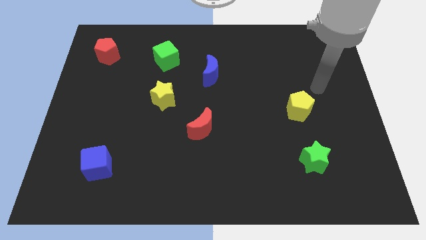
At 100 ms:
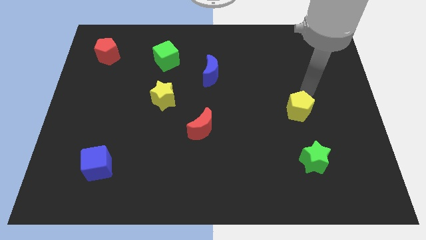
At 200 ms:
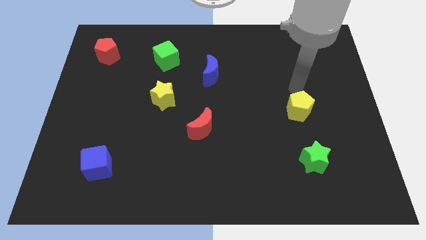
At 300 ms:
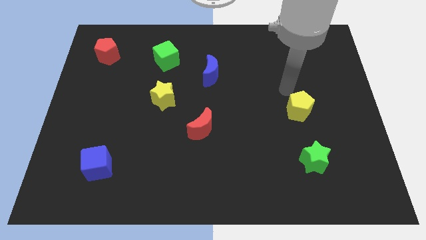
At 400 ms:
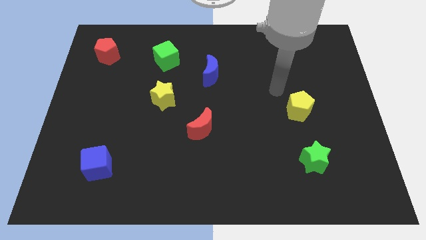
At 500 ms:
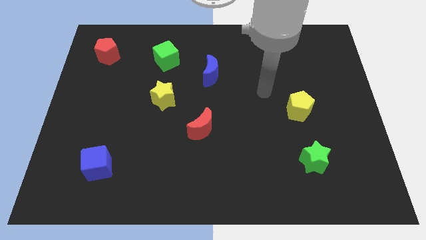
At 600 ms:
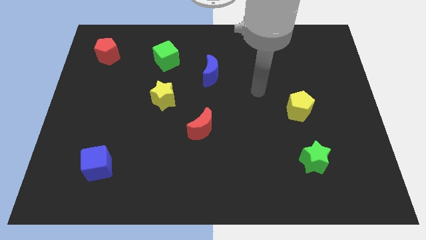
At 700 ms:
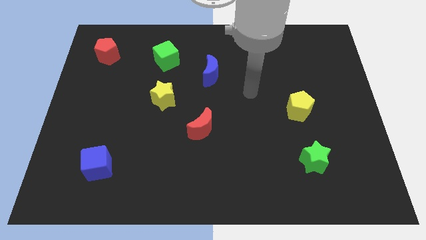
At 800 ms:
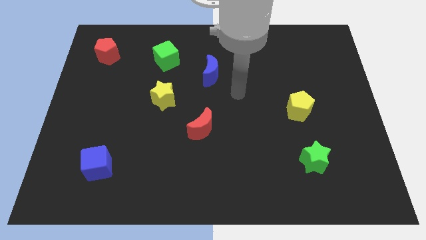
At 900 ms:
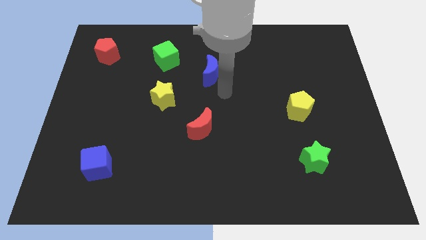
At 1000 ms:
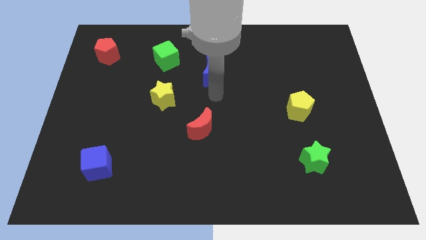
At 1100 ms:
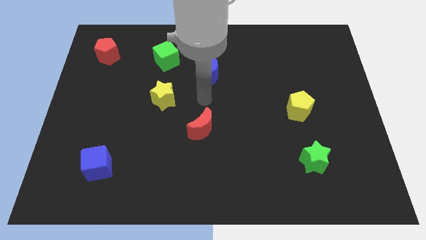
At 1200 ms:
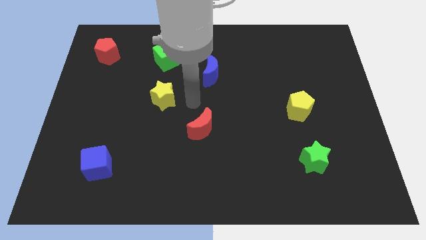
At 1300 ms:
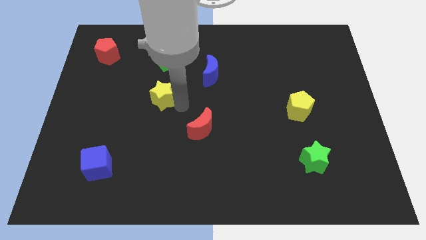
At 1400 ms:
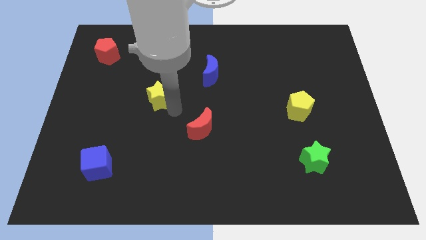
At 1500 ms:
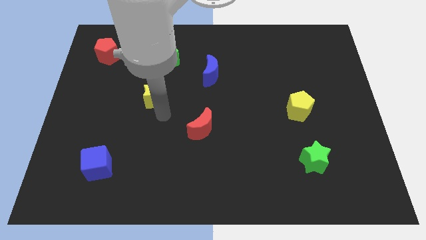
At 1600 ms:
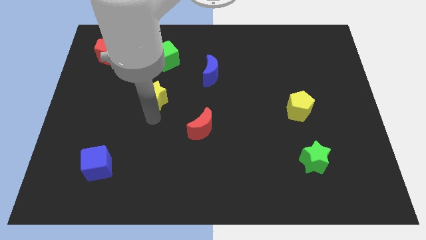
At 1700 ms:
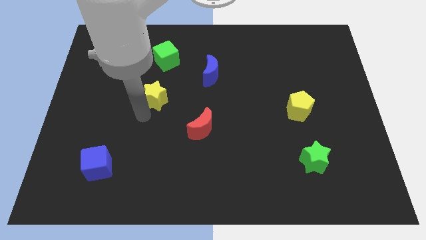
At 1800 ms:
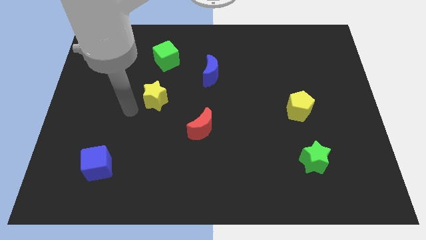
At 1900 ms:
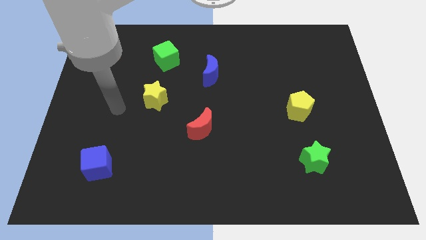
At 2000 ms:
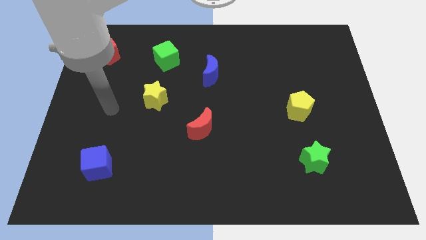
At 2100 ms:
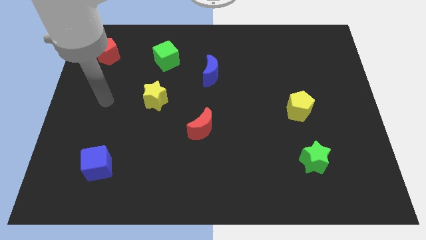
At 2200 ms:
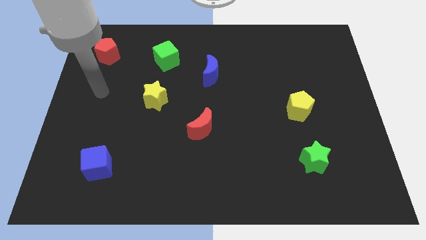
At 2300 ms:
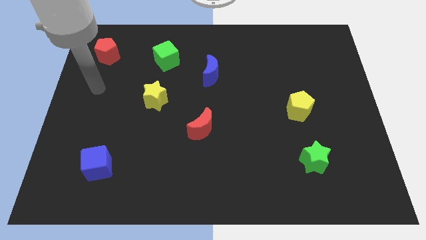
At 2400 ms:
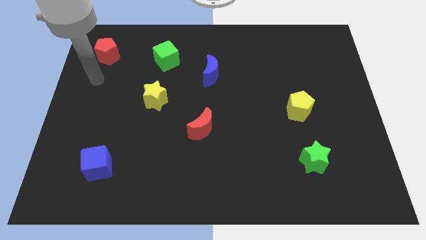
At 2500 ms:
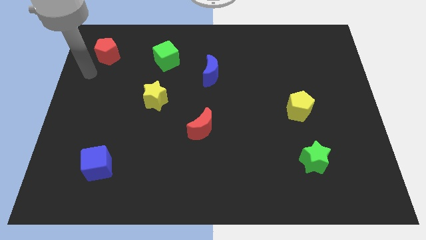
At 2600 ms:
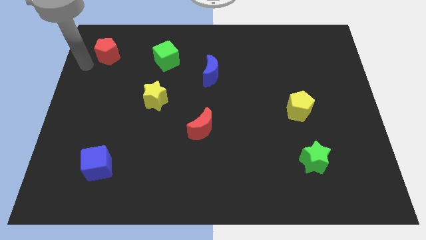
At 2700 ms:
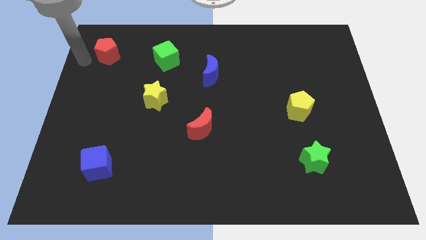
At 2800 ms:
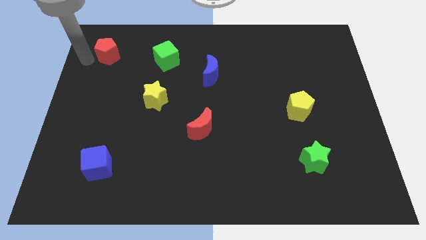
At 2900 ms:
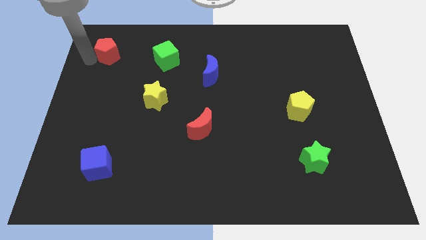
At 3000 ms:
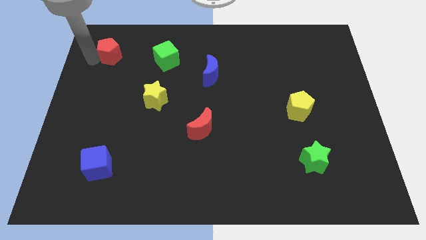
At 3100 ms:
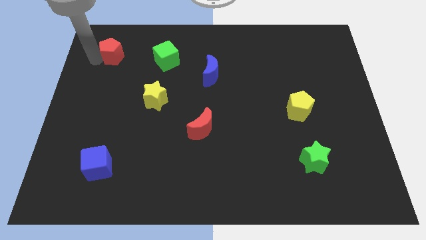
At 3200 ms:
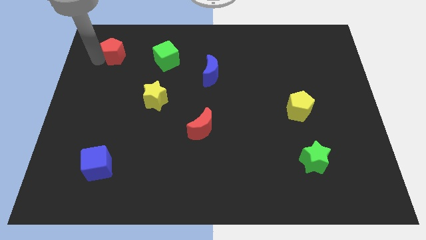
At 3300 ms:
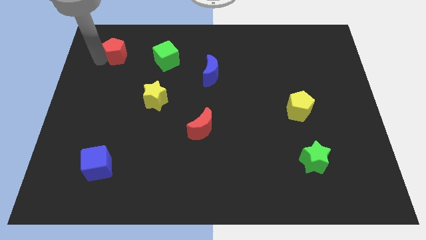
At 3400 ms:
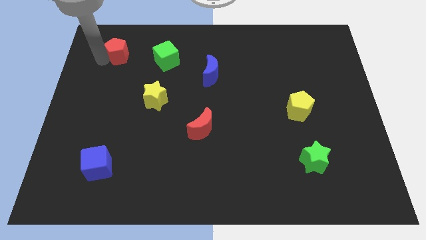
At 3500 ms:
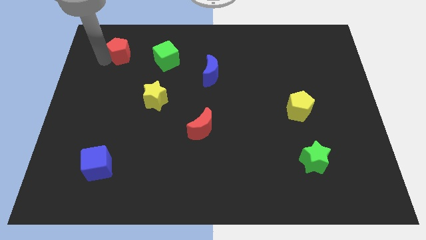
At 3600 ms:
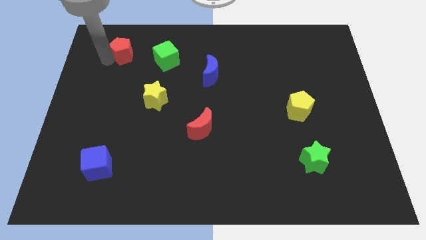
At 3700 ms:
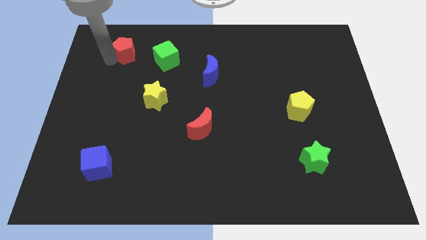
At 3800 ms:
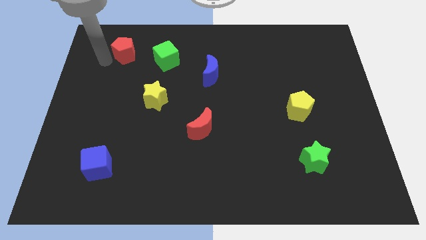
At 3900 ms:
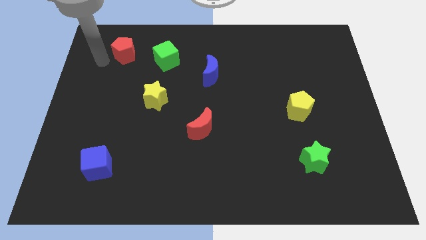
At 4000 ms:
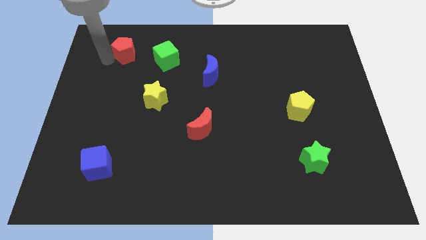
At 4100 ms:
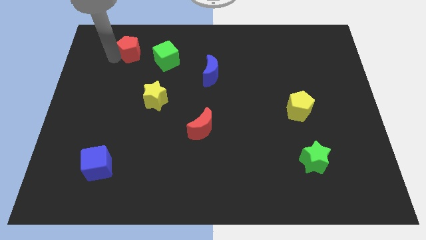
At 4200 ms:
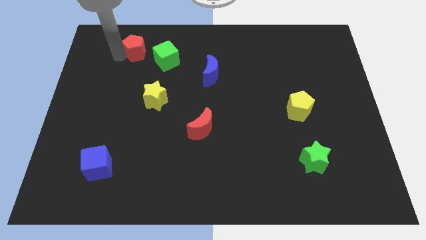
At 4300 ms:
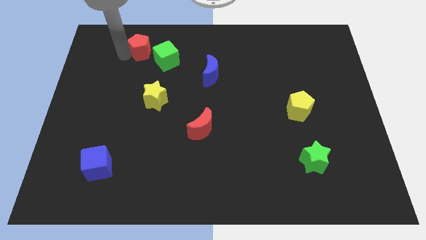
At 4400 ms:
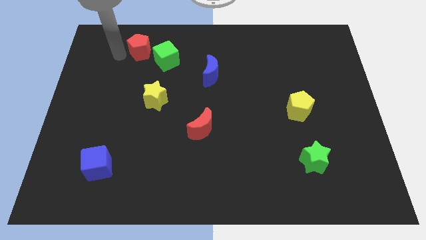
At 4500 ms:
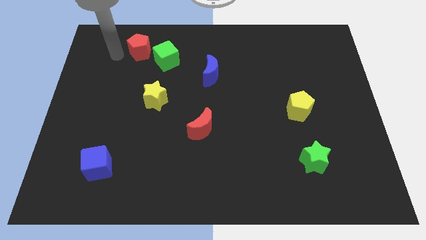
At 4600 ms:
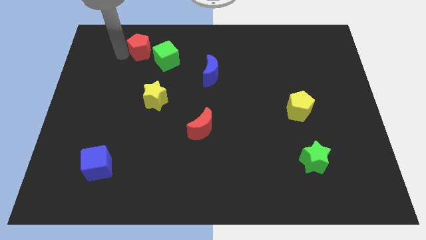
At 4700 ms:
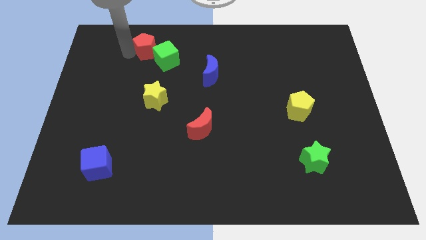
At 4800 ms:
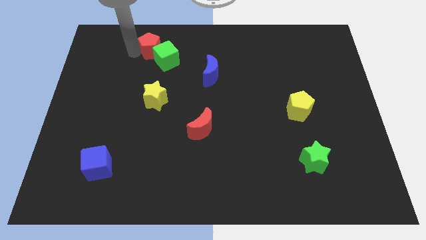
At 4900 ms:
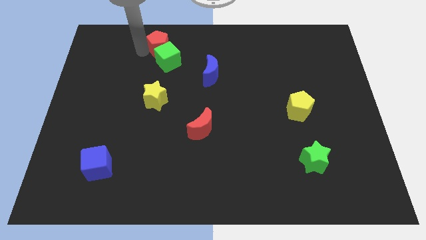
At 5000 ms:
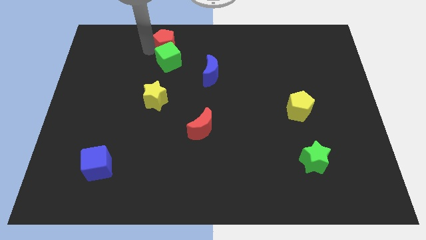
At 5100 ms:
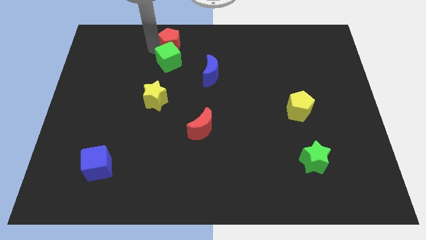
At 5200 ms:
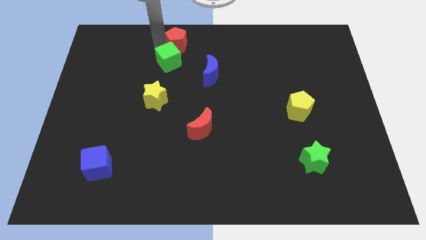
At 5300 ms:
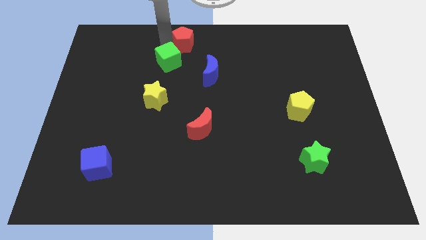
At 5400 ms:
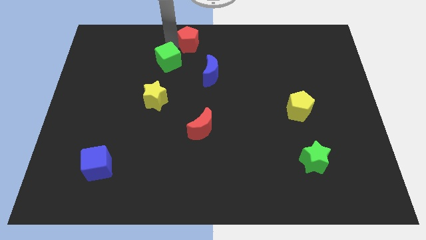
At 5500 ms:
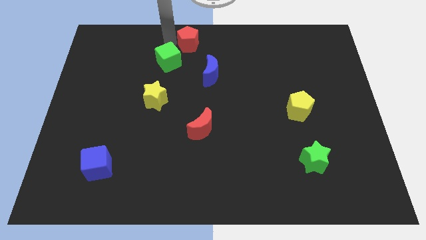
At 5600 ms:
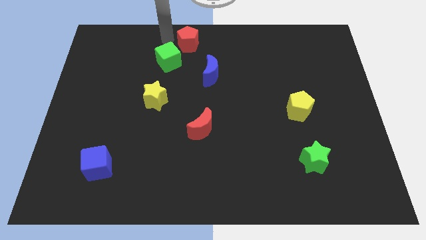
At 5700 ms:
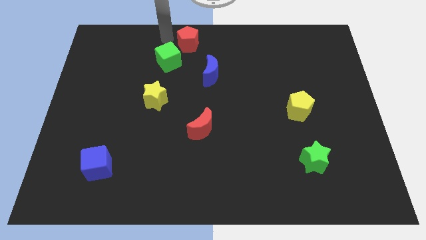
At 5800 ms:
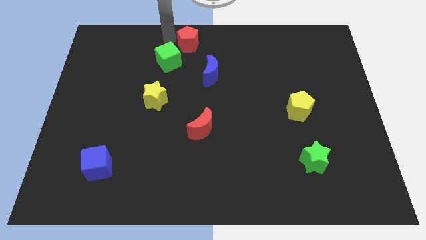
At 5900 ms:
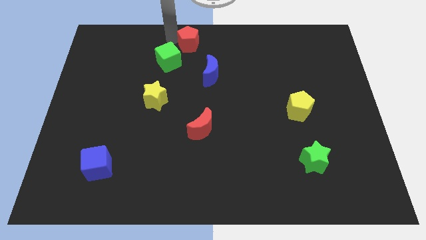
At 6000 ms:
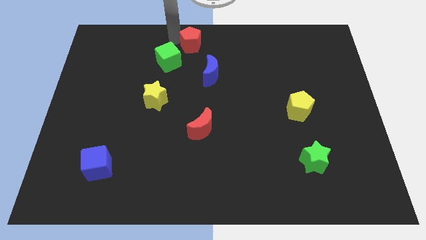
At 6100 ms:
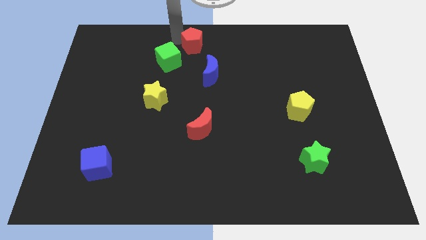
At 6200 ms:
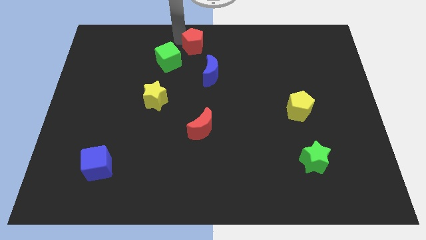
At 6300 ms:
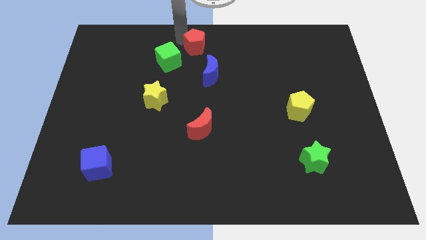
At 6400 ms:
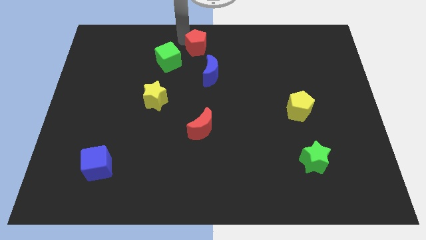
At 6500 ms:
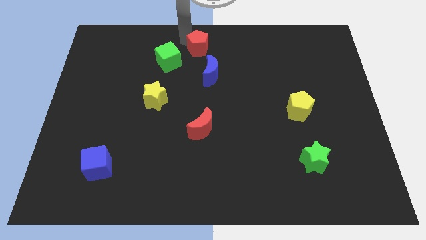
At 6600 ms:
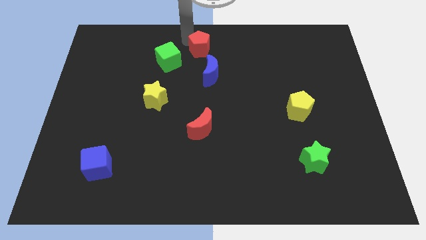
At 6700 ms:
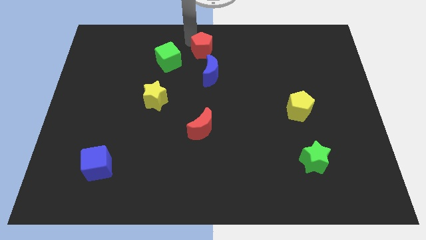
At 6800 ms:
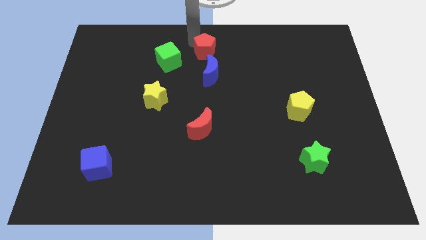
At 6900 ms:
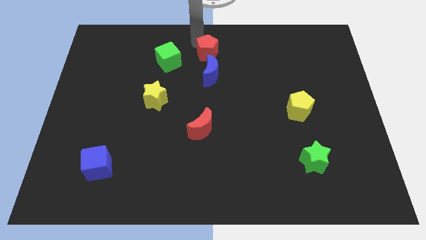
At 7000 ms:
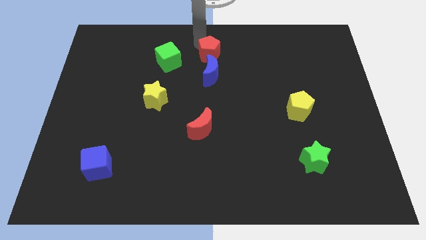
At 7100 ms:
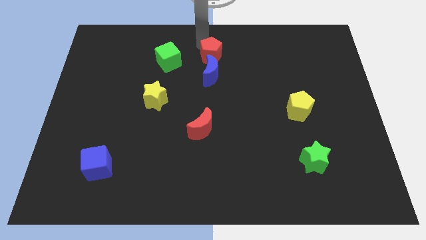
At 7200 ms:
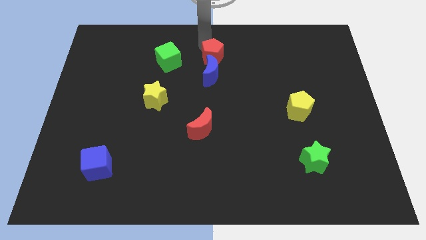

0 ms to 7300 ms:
slide the red pentagon diagonally up and to the right of the blue moon

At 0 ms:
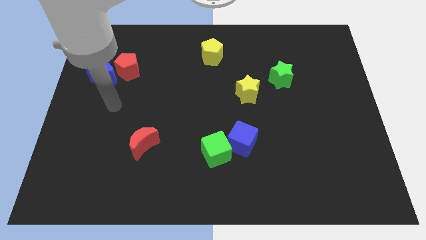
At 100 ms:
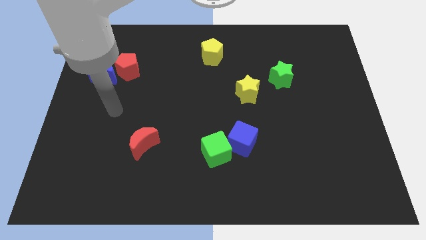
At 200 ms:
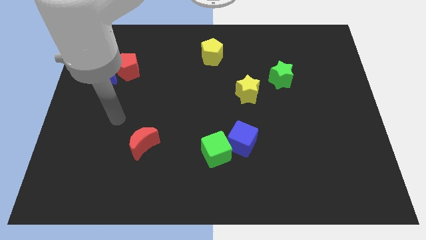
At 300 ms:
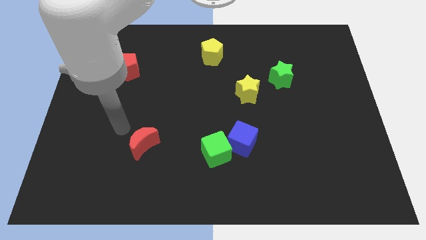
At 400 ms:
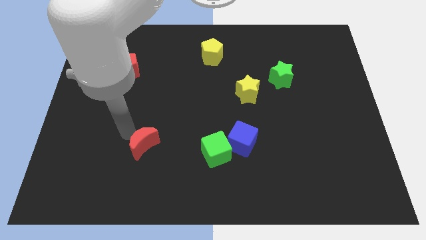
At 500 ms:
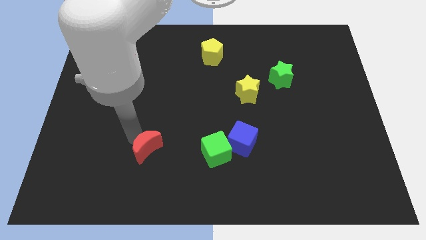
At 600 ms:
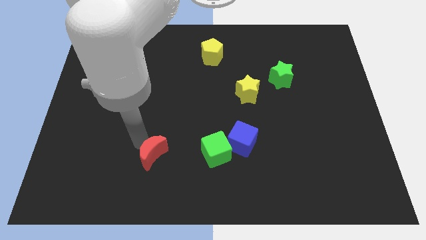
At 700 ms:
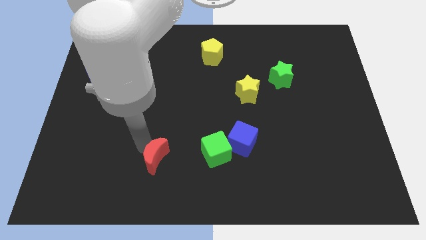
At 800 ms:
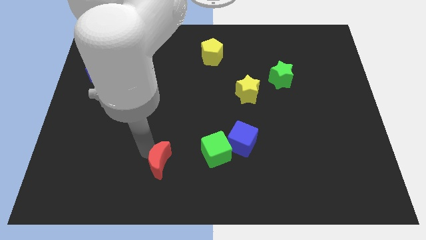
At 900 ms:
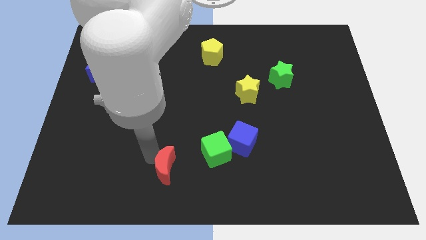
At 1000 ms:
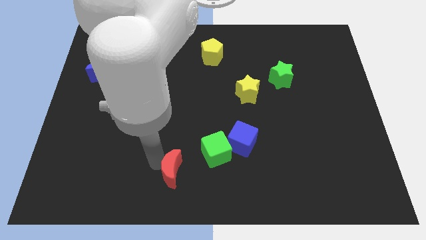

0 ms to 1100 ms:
move the red moon diagonally down and to the left of the green cube

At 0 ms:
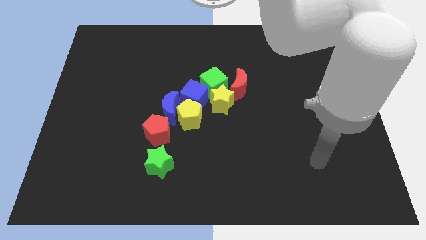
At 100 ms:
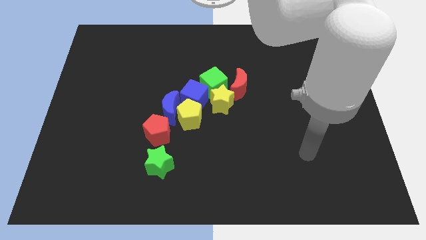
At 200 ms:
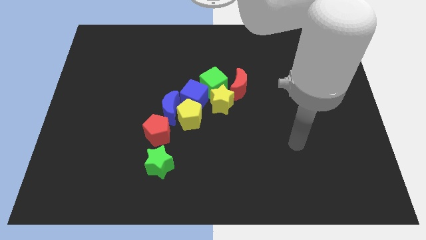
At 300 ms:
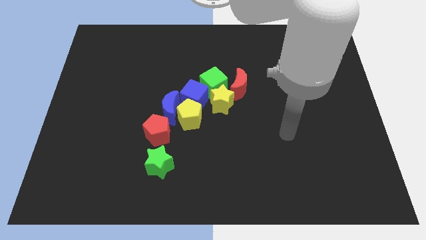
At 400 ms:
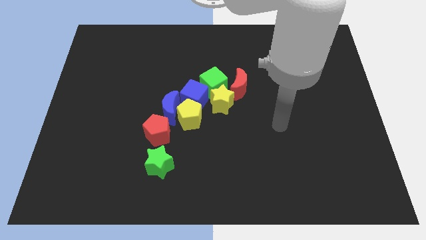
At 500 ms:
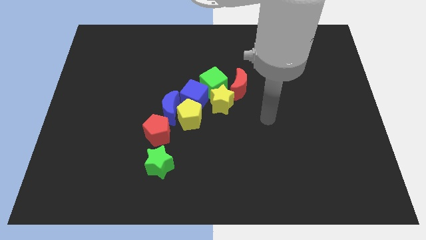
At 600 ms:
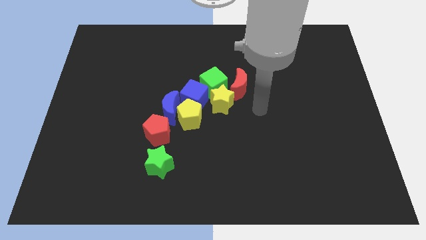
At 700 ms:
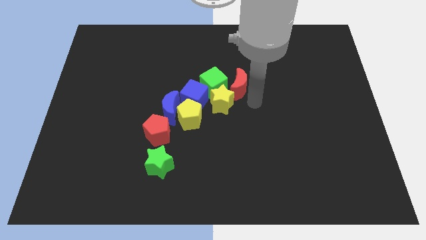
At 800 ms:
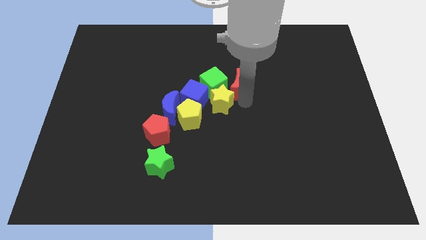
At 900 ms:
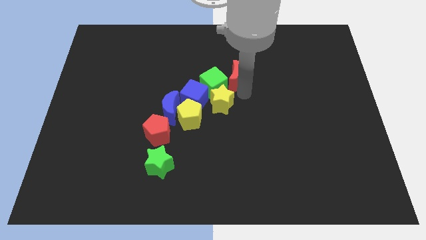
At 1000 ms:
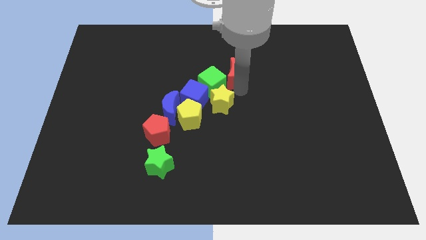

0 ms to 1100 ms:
move the green cube to the top of the yellow pentagon
